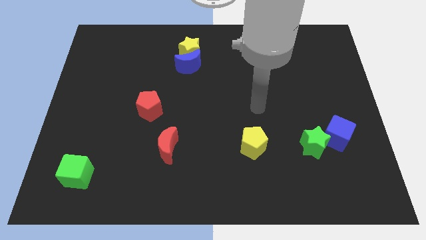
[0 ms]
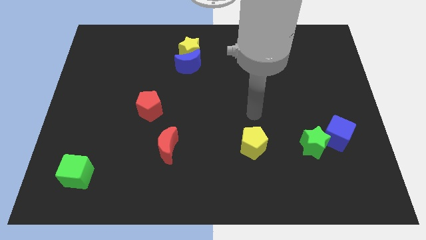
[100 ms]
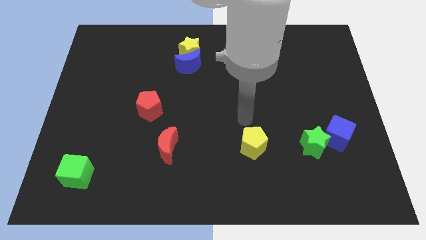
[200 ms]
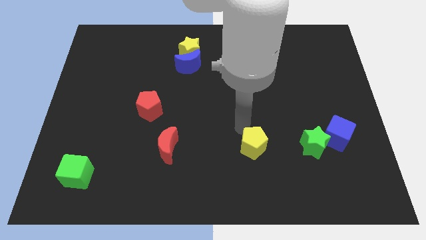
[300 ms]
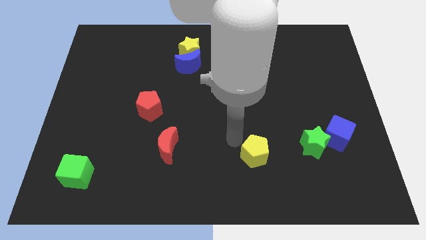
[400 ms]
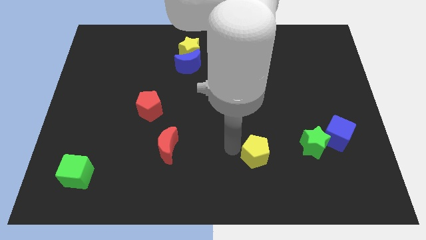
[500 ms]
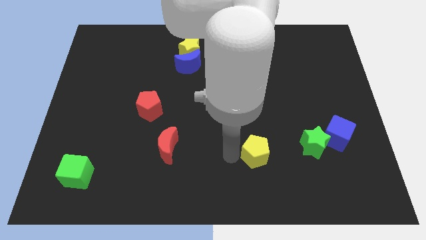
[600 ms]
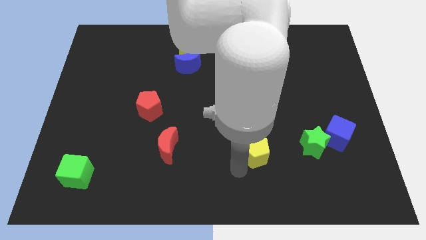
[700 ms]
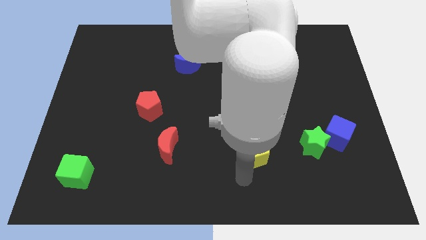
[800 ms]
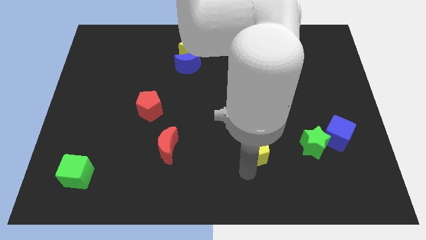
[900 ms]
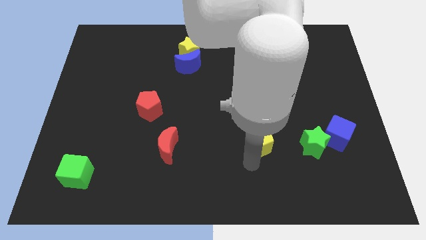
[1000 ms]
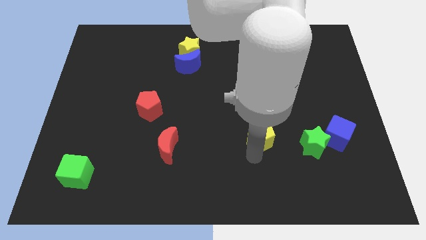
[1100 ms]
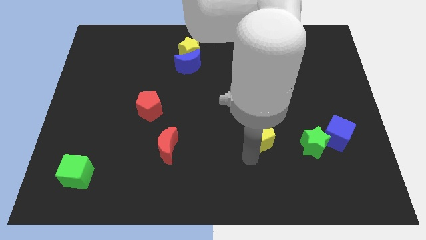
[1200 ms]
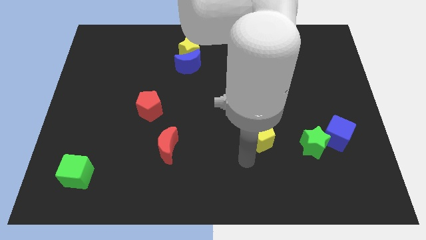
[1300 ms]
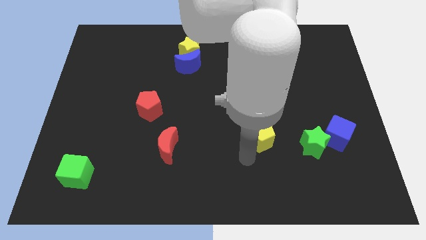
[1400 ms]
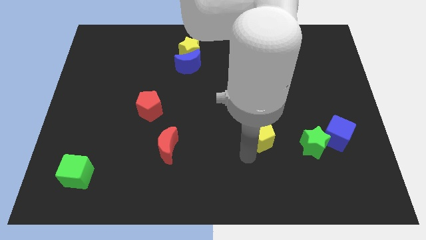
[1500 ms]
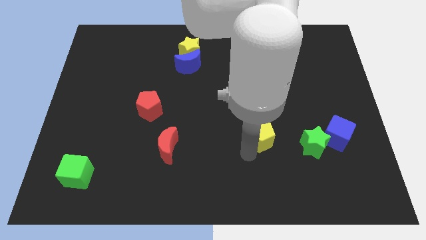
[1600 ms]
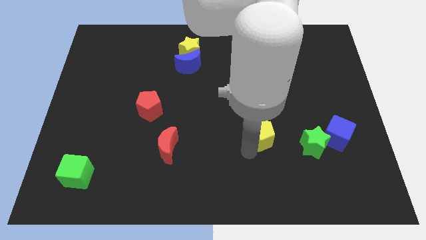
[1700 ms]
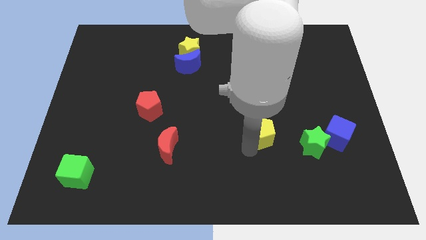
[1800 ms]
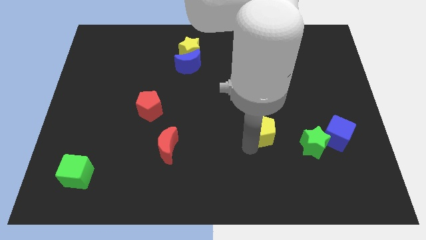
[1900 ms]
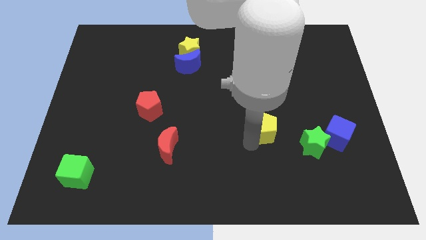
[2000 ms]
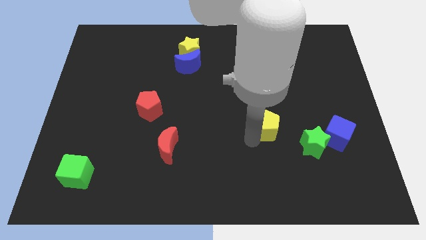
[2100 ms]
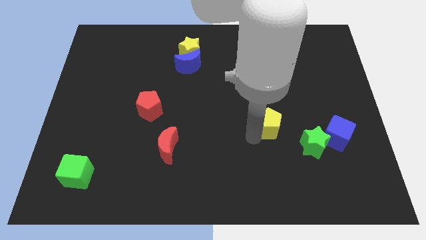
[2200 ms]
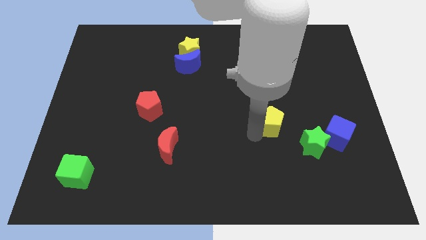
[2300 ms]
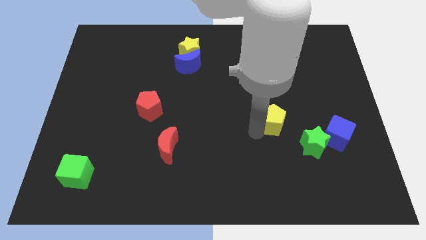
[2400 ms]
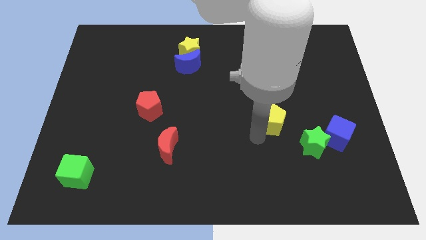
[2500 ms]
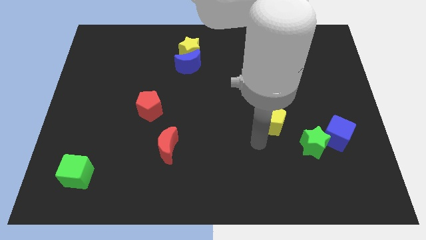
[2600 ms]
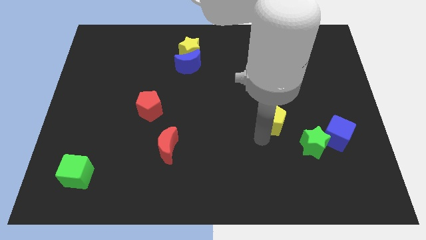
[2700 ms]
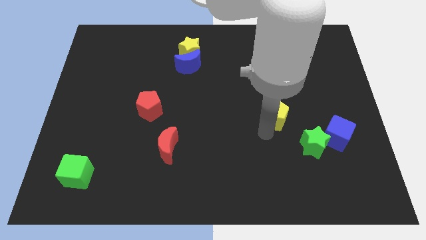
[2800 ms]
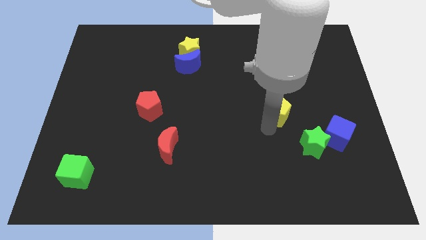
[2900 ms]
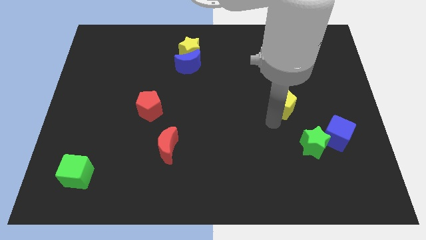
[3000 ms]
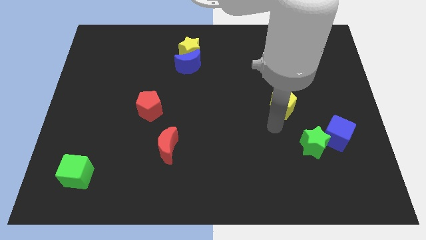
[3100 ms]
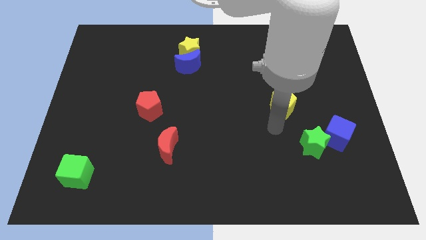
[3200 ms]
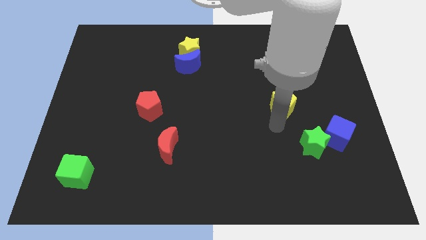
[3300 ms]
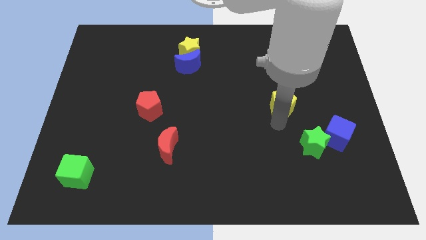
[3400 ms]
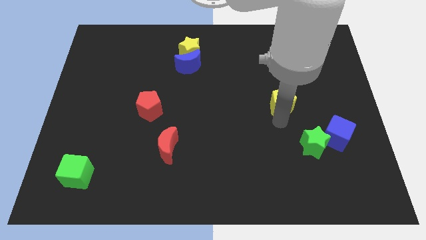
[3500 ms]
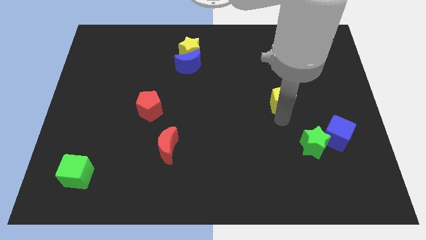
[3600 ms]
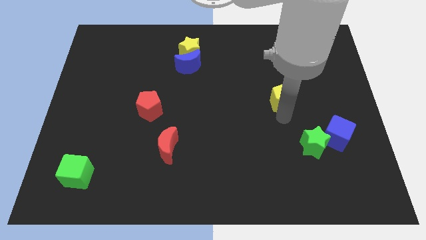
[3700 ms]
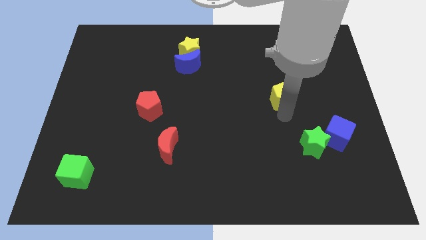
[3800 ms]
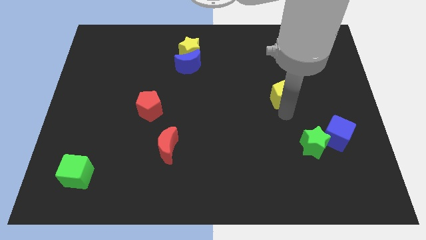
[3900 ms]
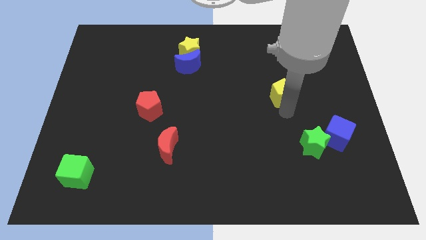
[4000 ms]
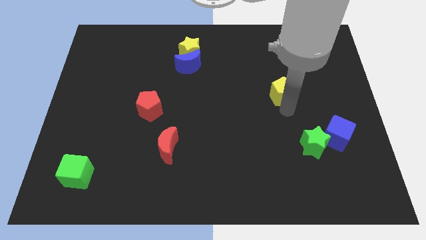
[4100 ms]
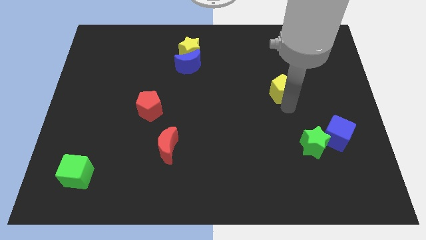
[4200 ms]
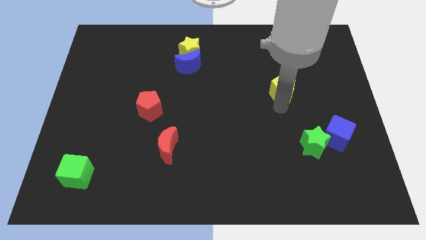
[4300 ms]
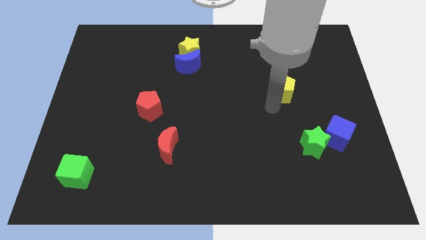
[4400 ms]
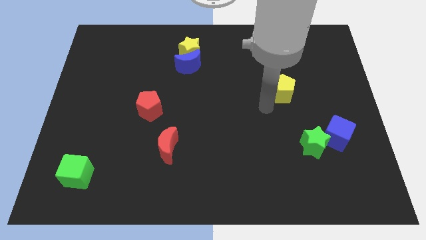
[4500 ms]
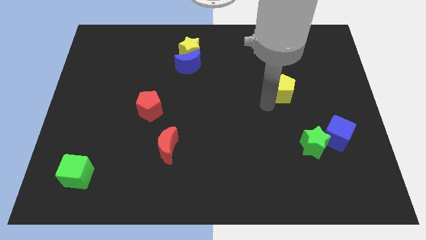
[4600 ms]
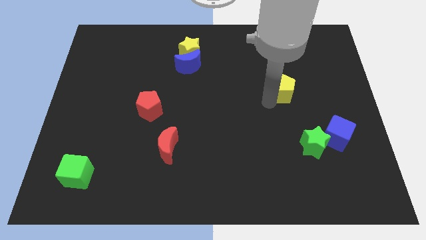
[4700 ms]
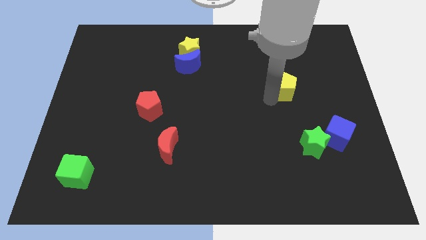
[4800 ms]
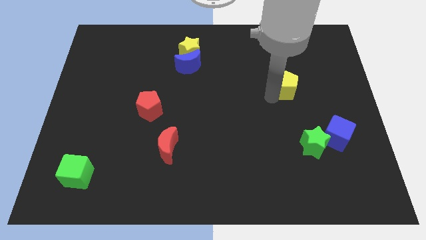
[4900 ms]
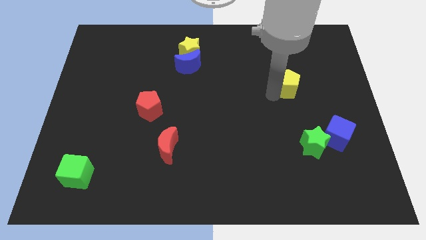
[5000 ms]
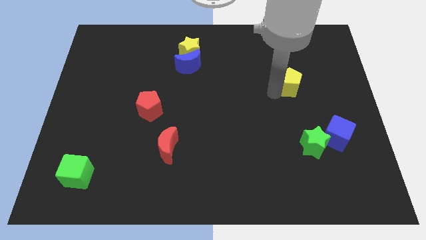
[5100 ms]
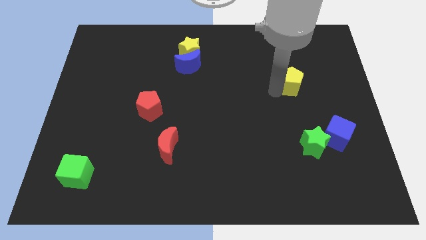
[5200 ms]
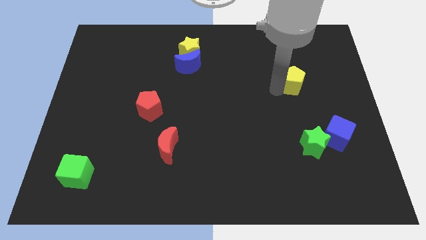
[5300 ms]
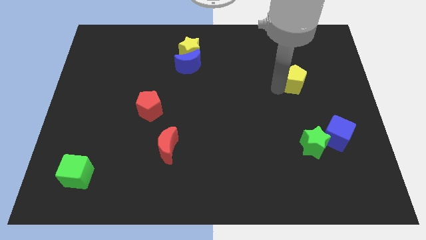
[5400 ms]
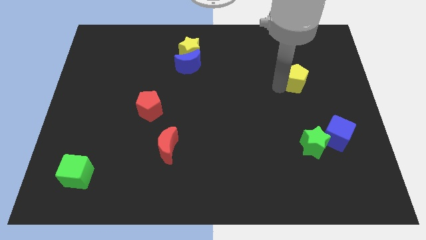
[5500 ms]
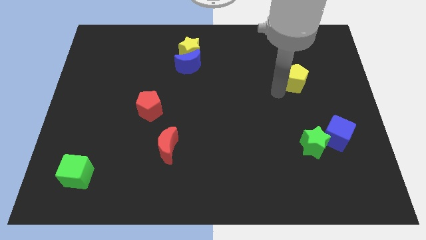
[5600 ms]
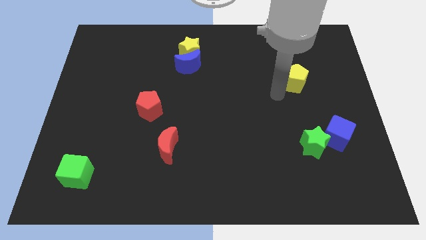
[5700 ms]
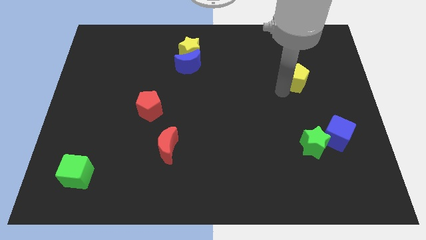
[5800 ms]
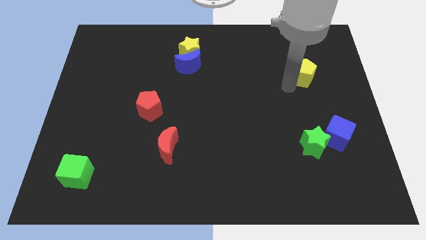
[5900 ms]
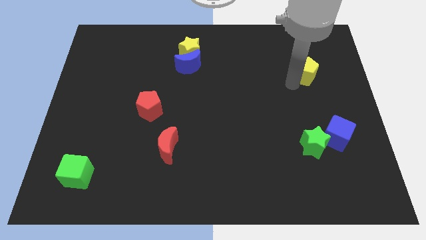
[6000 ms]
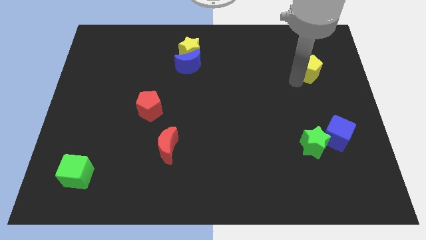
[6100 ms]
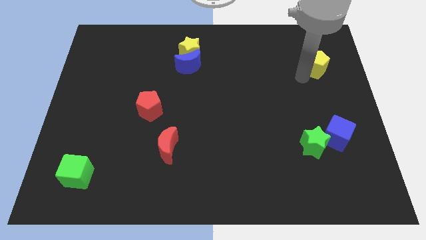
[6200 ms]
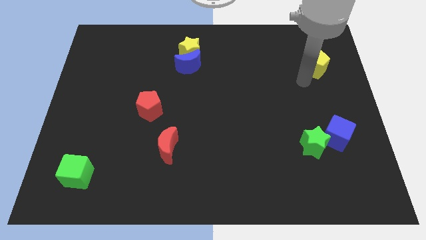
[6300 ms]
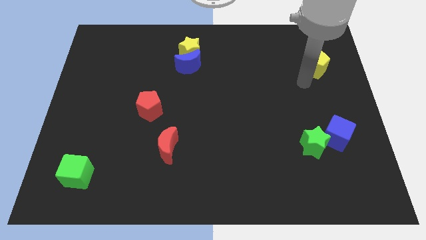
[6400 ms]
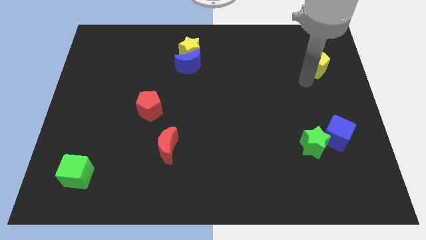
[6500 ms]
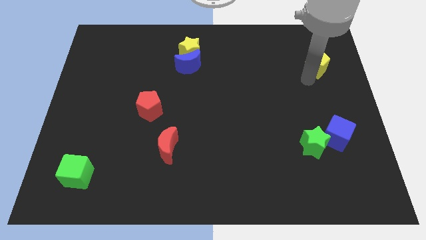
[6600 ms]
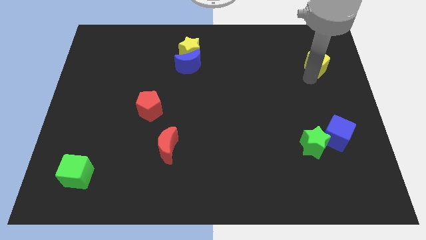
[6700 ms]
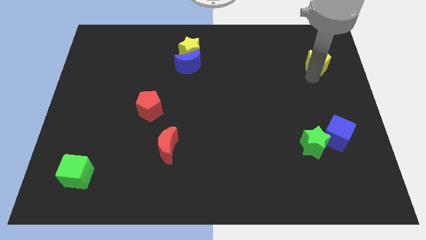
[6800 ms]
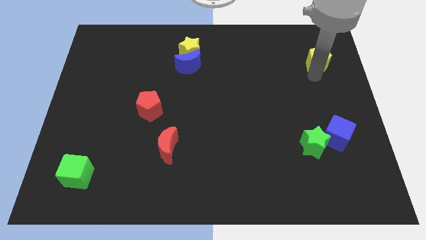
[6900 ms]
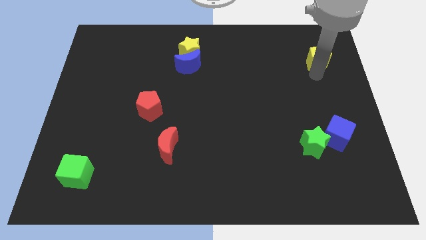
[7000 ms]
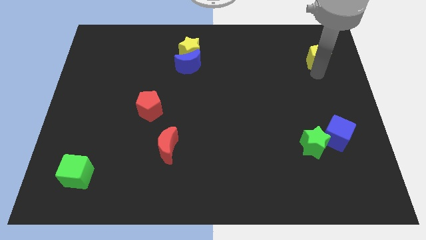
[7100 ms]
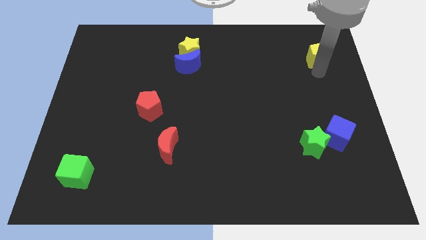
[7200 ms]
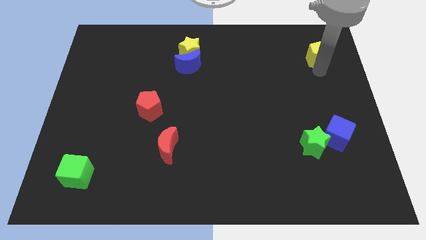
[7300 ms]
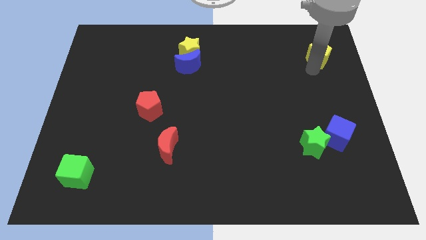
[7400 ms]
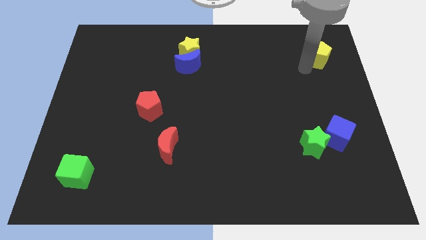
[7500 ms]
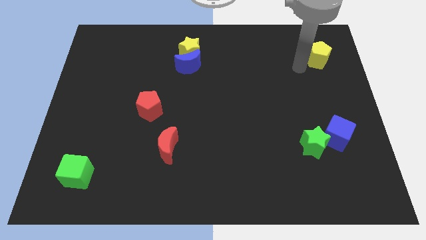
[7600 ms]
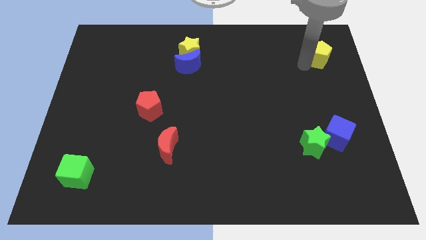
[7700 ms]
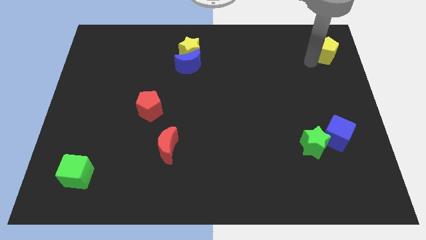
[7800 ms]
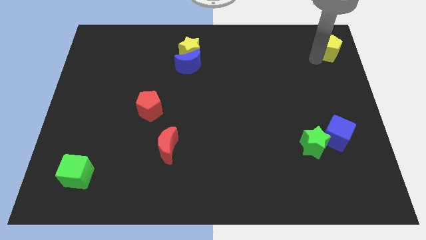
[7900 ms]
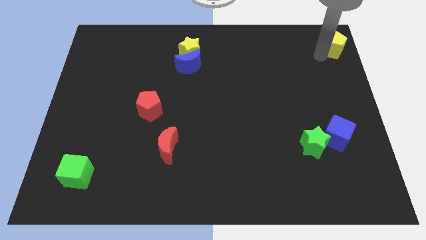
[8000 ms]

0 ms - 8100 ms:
push the yellow pentagon to the upper right corner
